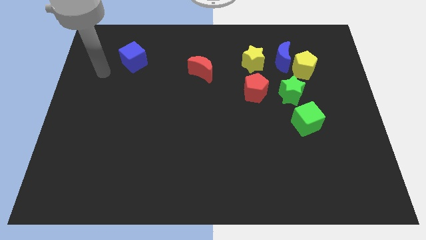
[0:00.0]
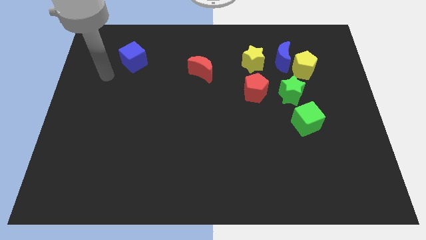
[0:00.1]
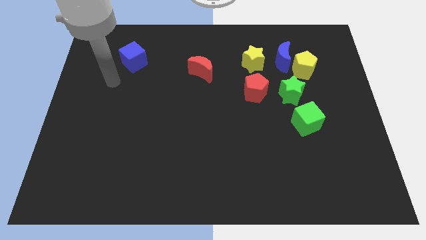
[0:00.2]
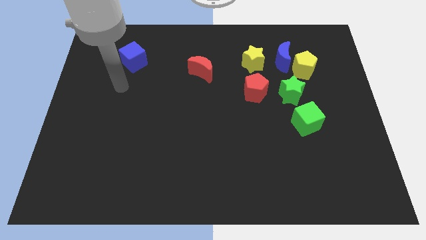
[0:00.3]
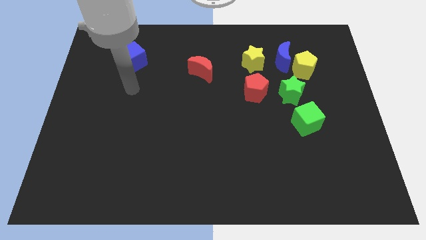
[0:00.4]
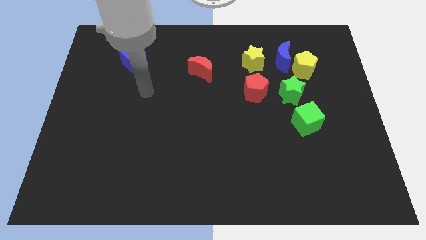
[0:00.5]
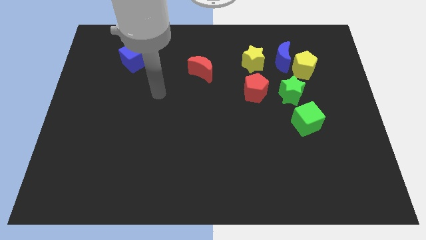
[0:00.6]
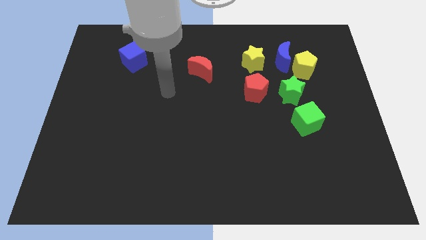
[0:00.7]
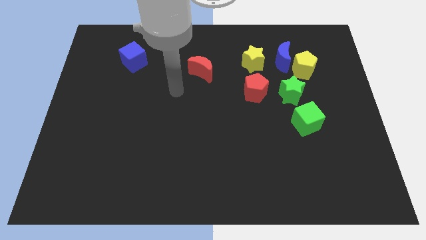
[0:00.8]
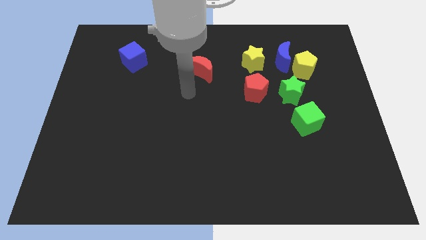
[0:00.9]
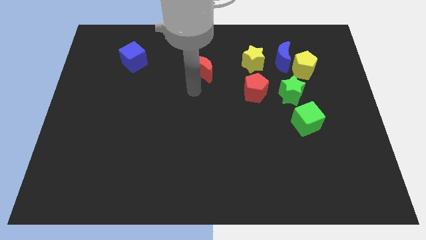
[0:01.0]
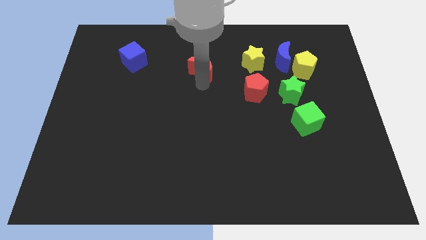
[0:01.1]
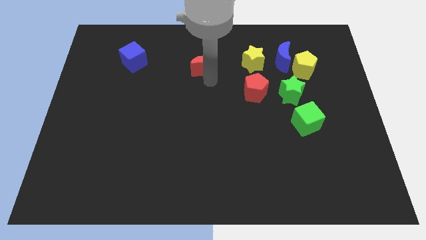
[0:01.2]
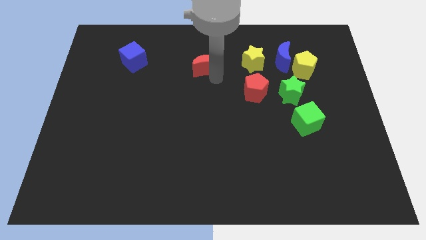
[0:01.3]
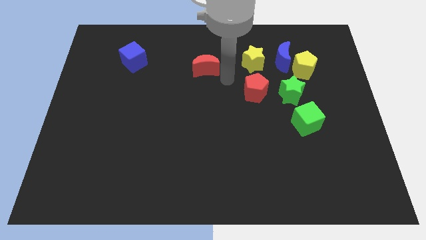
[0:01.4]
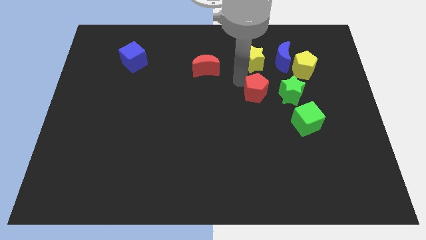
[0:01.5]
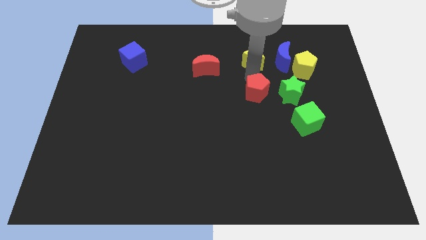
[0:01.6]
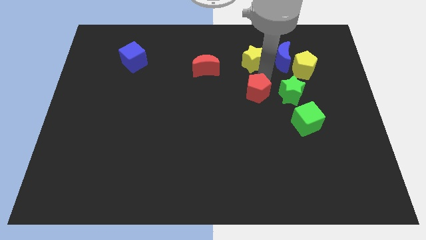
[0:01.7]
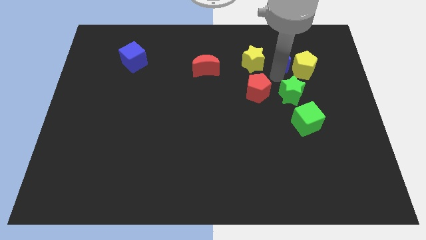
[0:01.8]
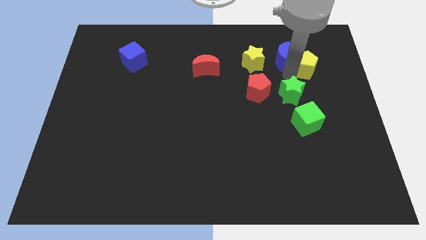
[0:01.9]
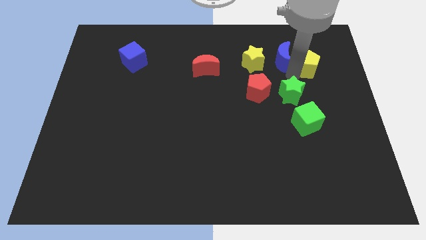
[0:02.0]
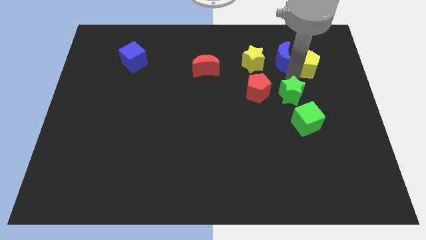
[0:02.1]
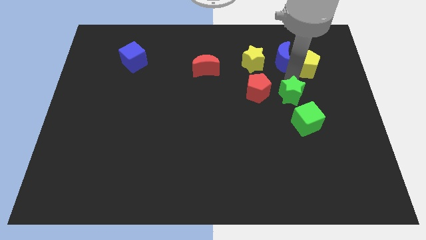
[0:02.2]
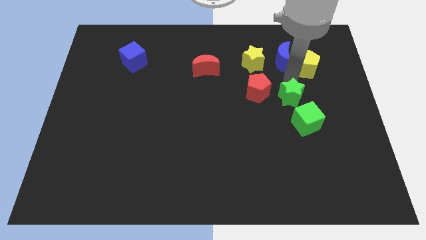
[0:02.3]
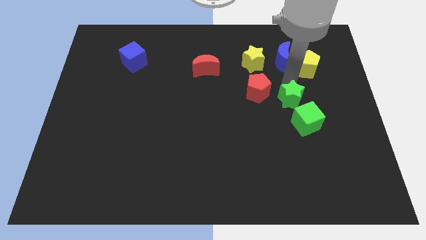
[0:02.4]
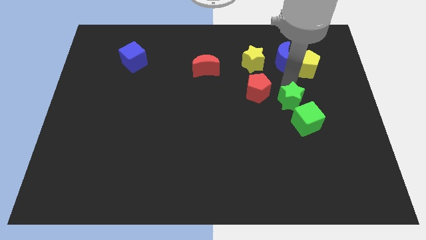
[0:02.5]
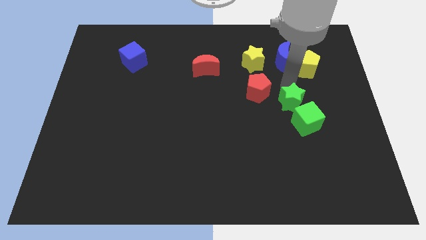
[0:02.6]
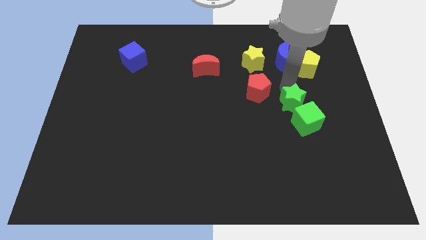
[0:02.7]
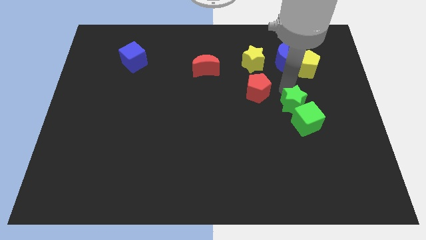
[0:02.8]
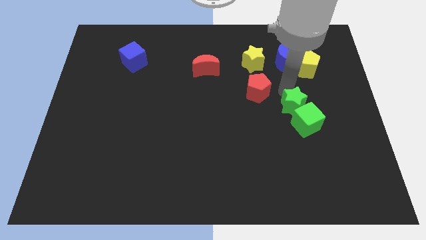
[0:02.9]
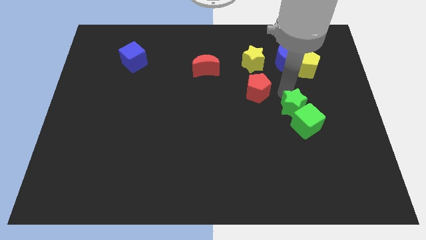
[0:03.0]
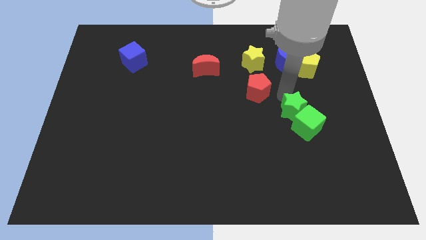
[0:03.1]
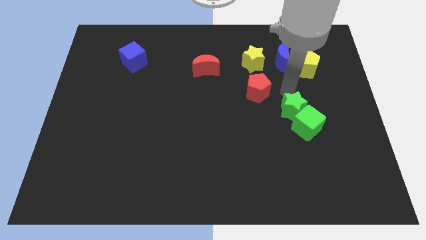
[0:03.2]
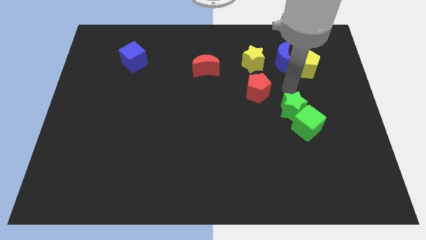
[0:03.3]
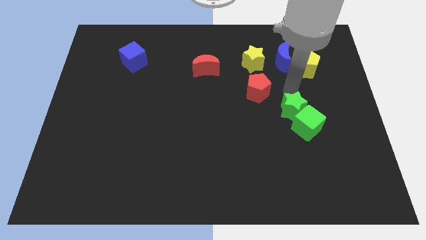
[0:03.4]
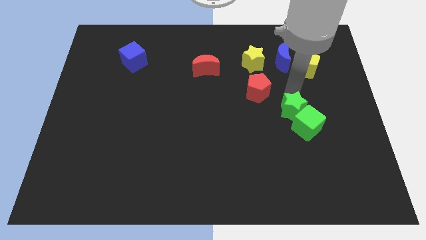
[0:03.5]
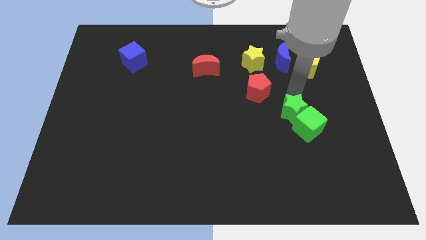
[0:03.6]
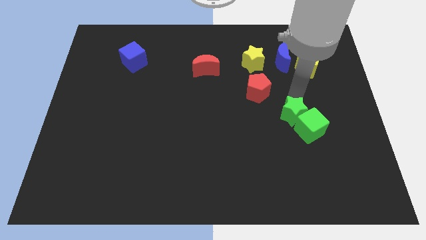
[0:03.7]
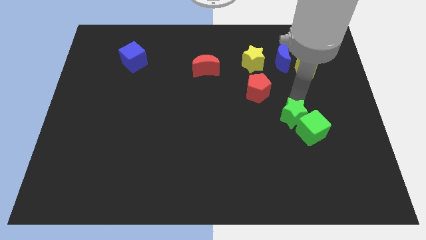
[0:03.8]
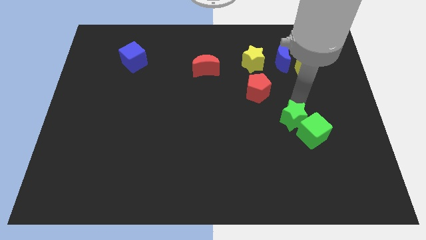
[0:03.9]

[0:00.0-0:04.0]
move the green star downwards a little bit

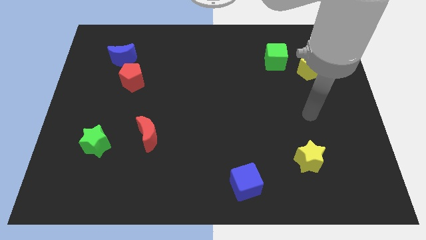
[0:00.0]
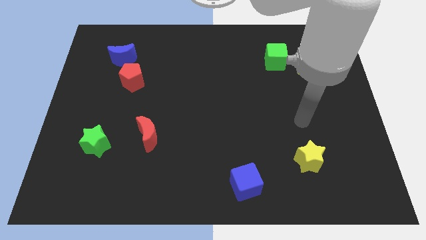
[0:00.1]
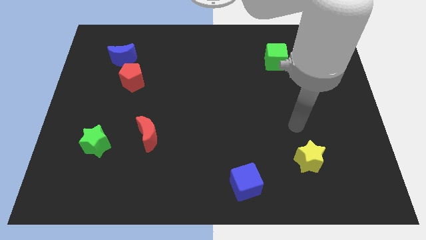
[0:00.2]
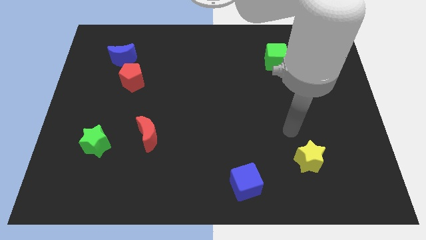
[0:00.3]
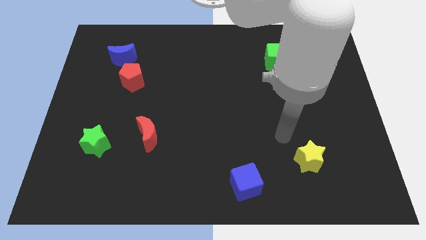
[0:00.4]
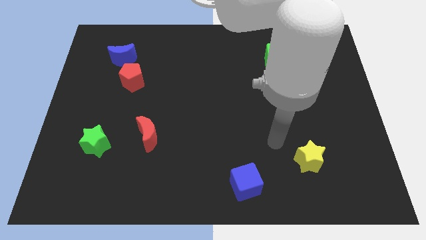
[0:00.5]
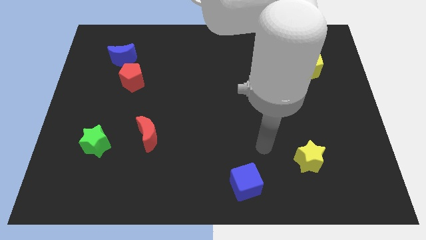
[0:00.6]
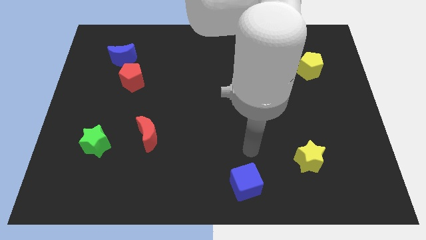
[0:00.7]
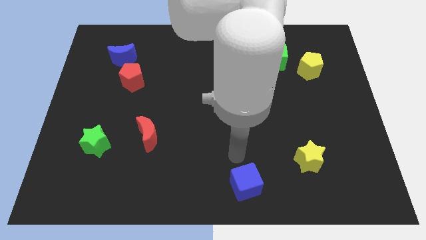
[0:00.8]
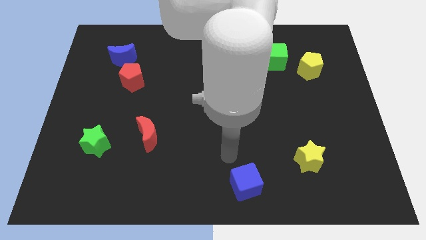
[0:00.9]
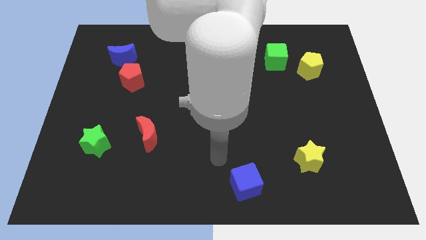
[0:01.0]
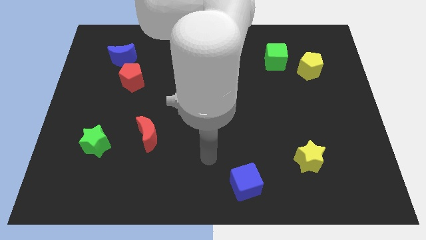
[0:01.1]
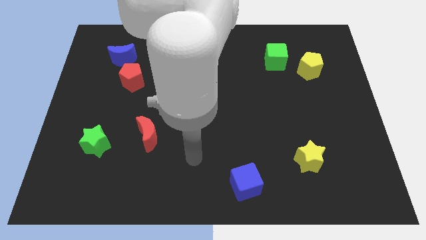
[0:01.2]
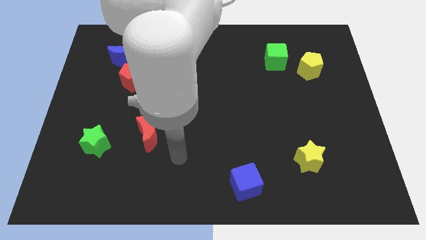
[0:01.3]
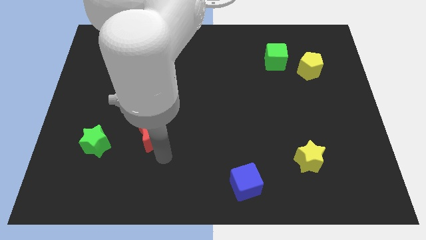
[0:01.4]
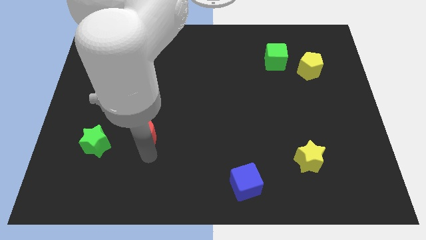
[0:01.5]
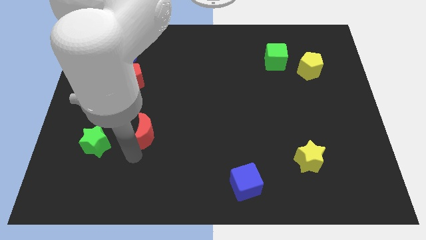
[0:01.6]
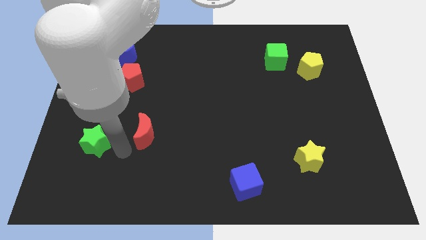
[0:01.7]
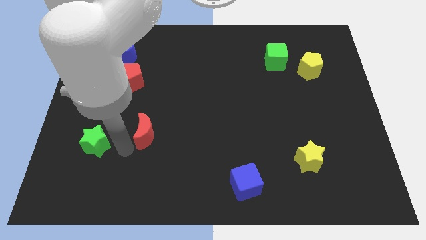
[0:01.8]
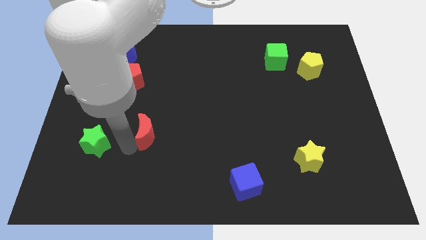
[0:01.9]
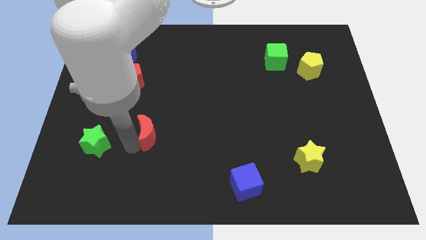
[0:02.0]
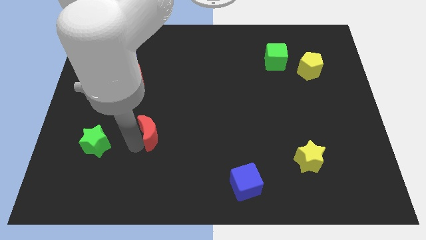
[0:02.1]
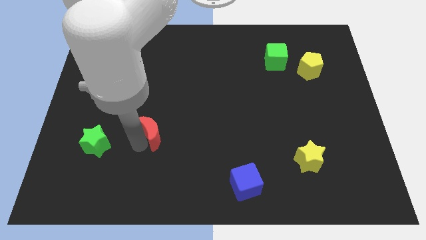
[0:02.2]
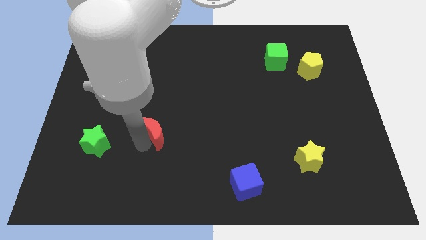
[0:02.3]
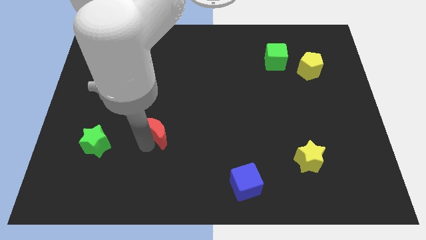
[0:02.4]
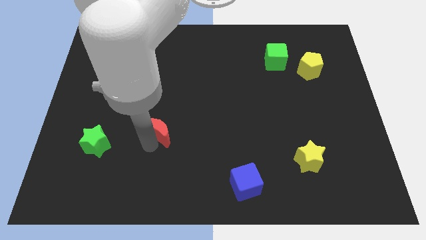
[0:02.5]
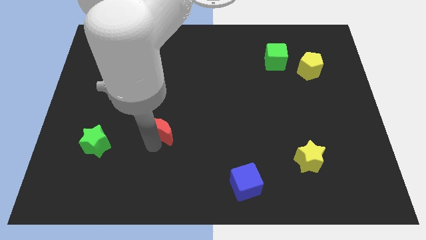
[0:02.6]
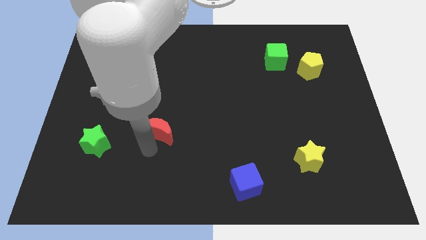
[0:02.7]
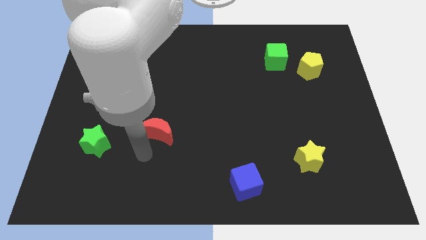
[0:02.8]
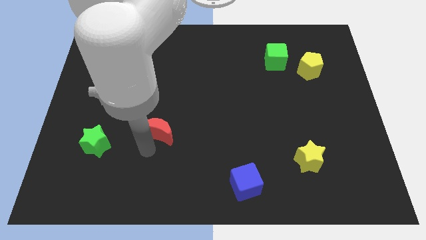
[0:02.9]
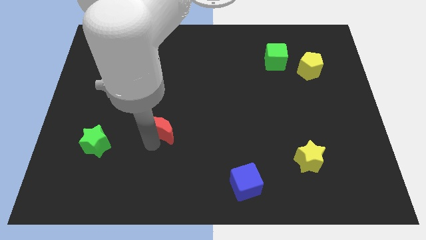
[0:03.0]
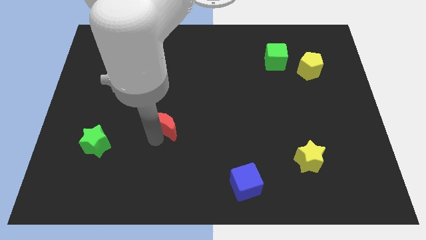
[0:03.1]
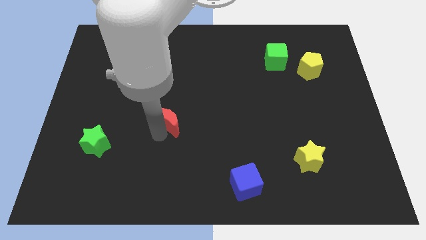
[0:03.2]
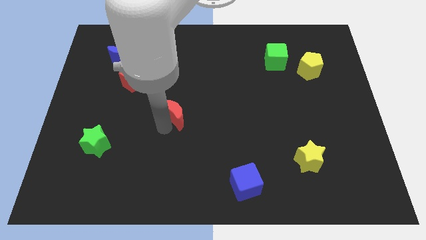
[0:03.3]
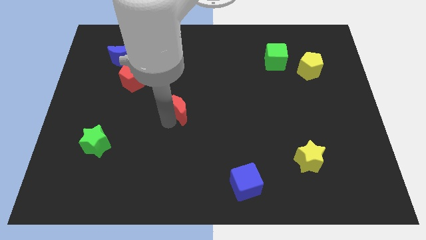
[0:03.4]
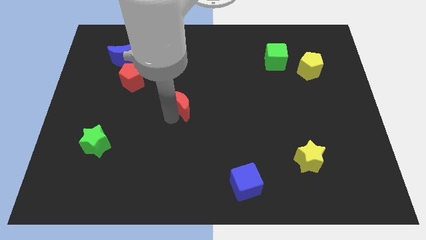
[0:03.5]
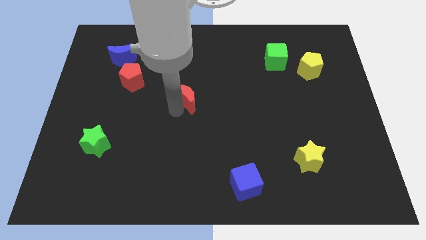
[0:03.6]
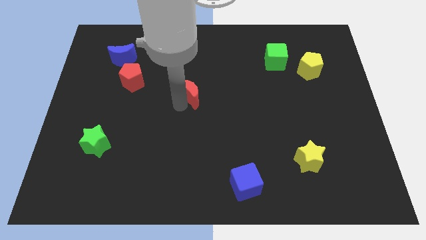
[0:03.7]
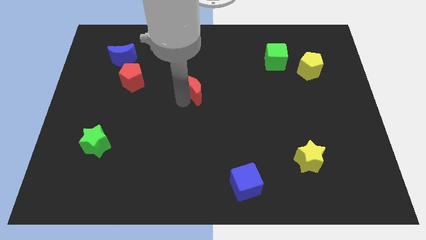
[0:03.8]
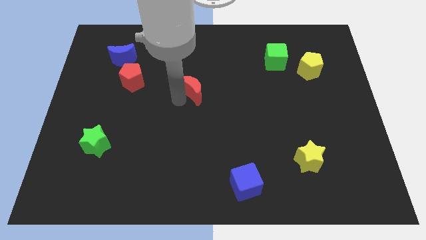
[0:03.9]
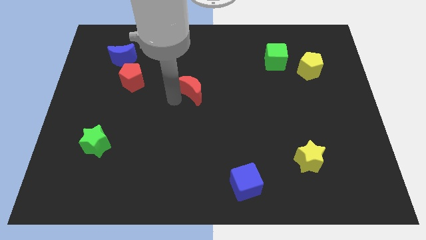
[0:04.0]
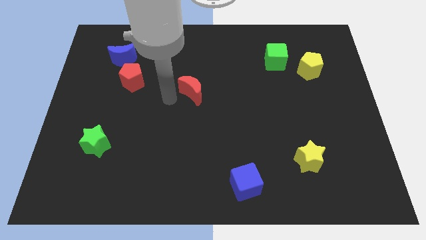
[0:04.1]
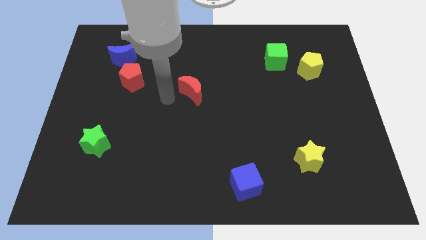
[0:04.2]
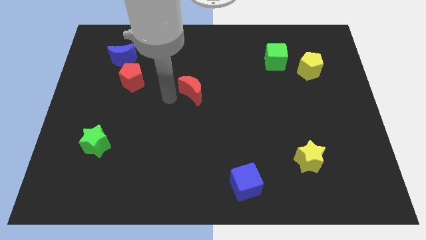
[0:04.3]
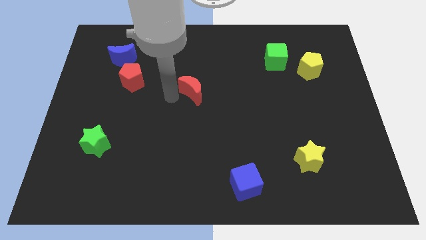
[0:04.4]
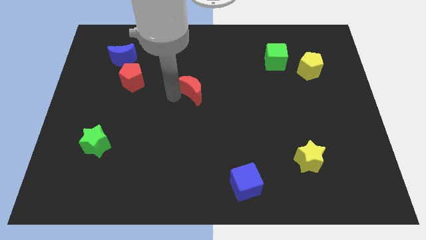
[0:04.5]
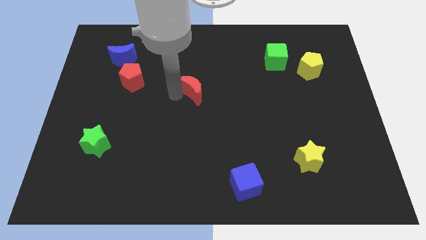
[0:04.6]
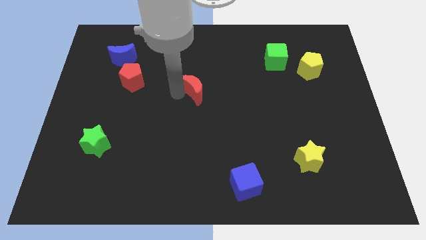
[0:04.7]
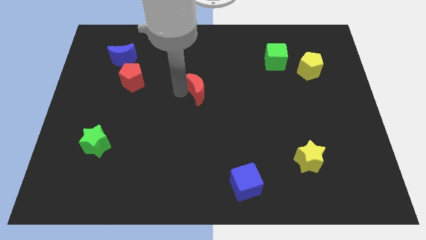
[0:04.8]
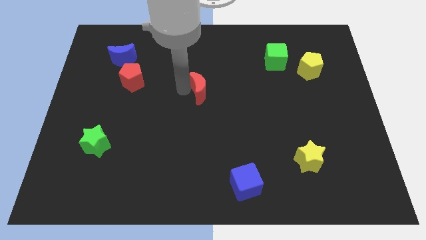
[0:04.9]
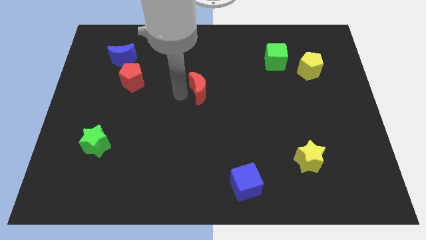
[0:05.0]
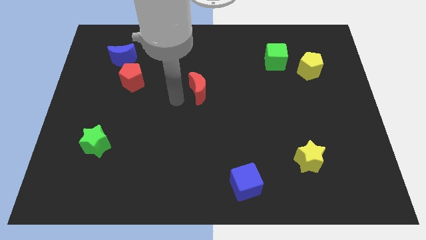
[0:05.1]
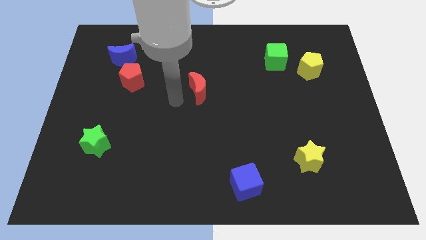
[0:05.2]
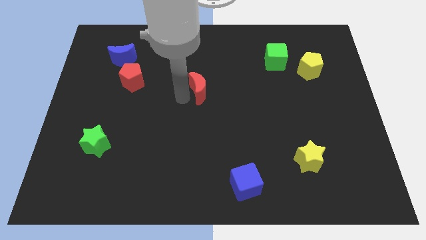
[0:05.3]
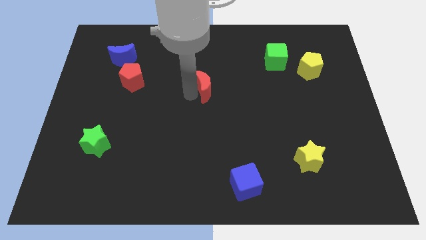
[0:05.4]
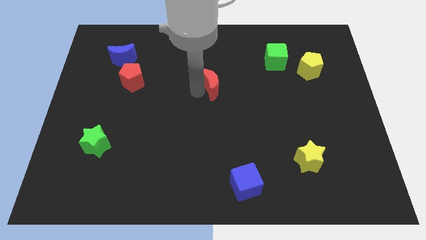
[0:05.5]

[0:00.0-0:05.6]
push the red moon diagonally upwards and to the right
